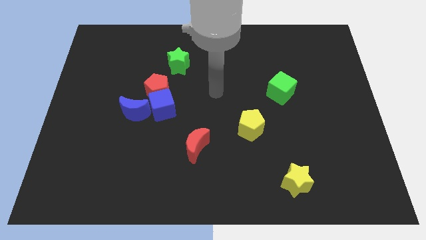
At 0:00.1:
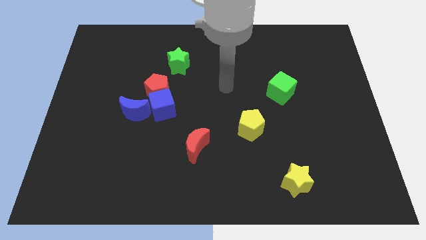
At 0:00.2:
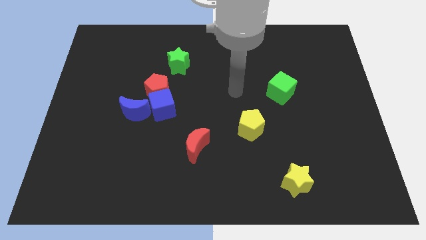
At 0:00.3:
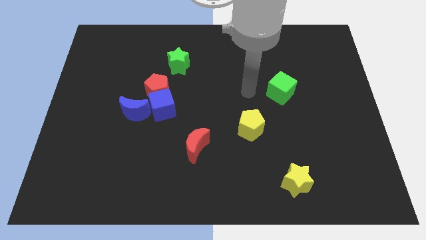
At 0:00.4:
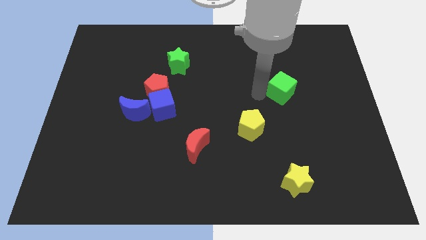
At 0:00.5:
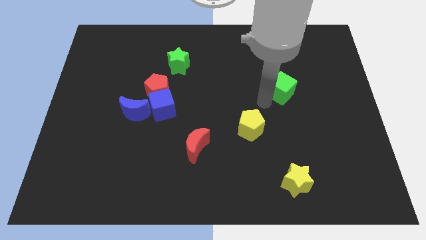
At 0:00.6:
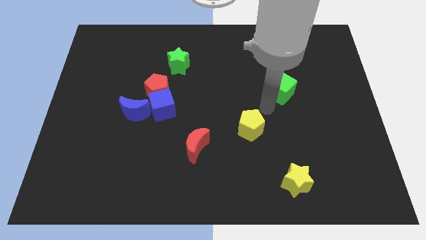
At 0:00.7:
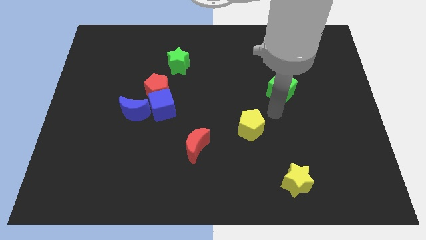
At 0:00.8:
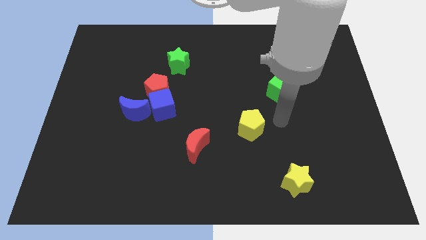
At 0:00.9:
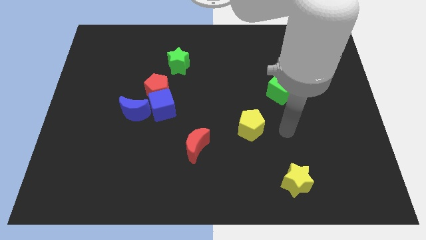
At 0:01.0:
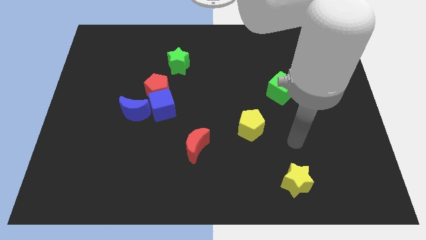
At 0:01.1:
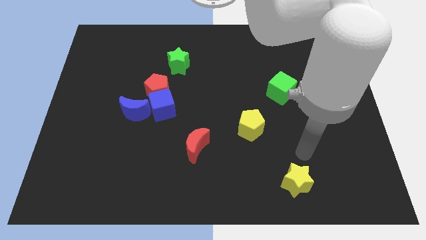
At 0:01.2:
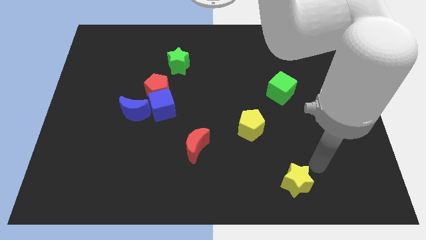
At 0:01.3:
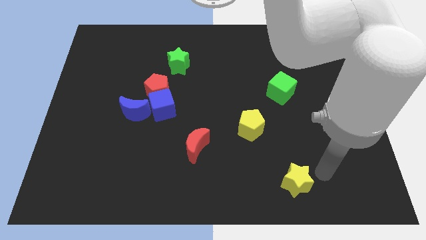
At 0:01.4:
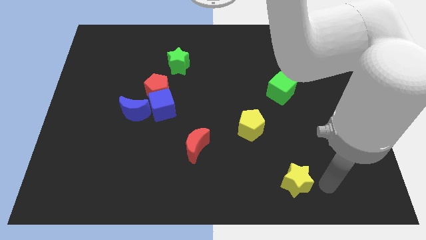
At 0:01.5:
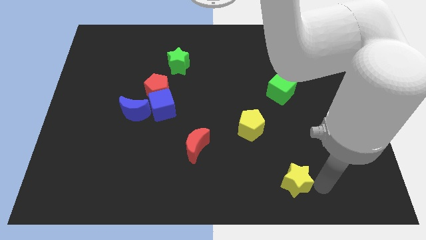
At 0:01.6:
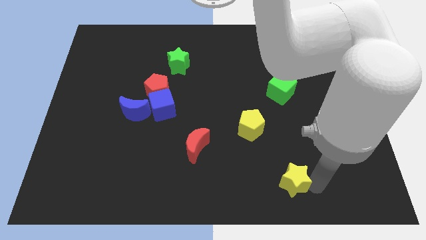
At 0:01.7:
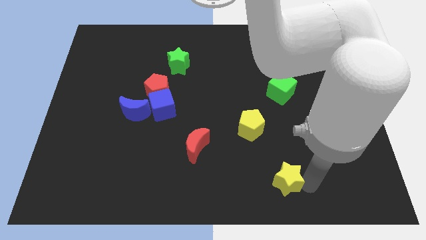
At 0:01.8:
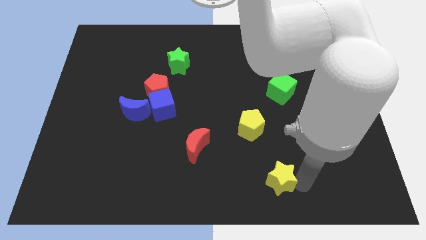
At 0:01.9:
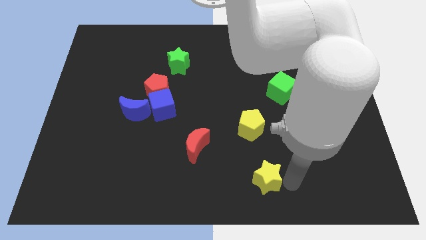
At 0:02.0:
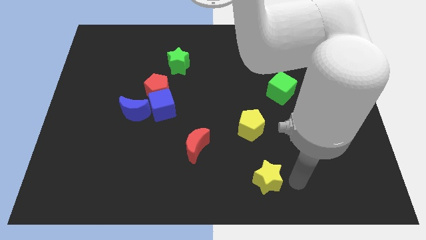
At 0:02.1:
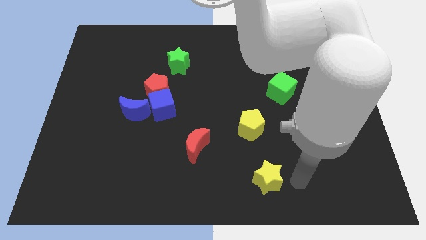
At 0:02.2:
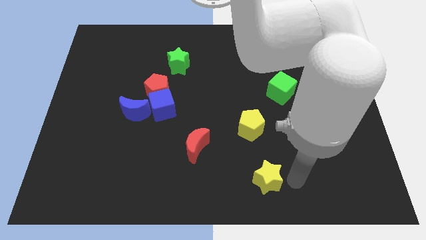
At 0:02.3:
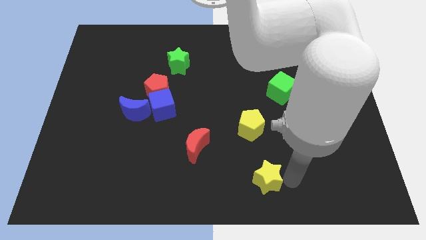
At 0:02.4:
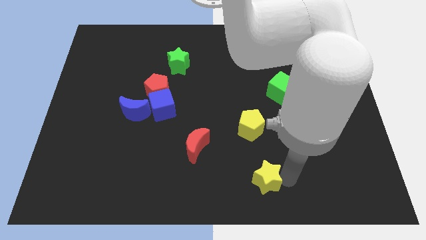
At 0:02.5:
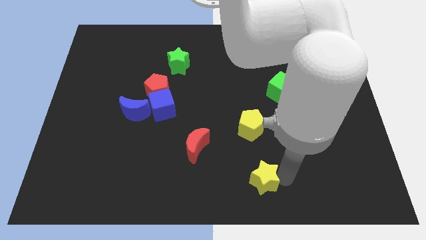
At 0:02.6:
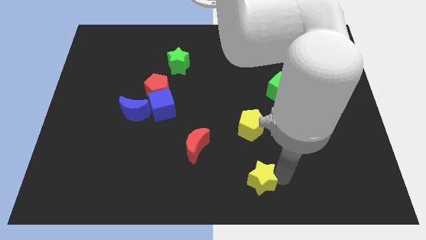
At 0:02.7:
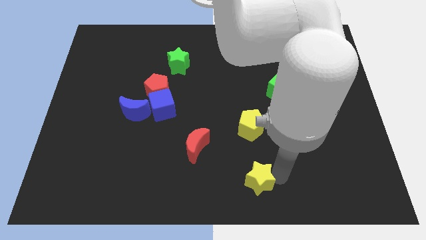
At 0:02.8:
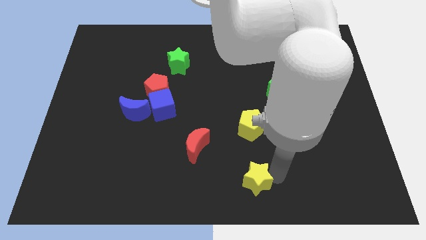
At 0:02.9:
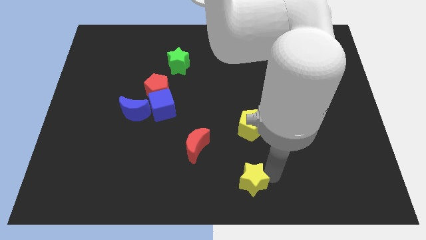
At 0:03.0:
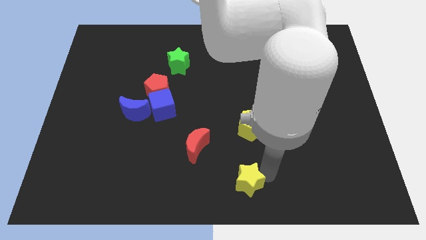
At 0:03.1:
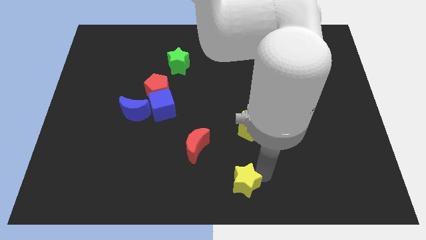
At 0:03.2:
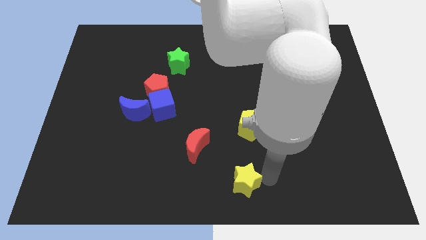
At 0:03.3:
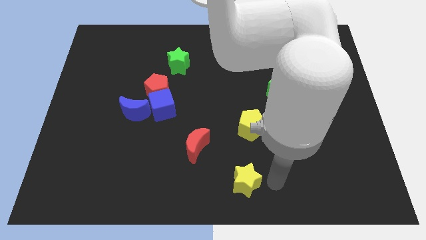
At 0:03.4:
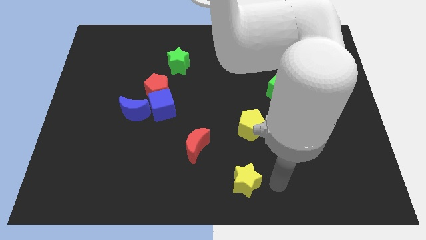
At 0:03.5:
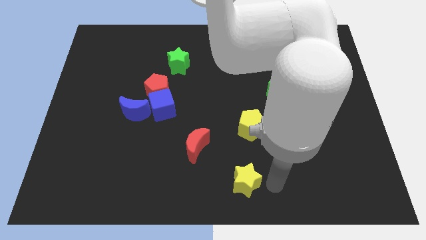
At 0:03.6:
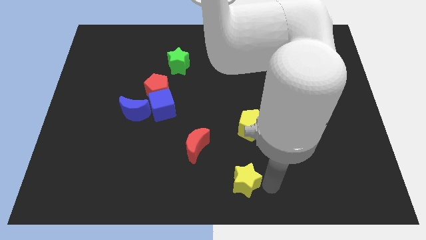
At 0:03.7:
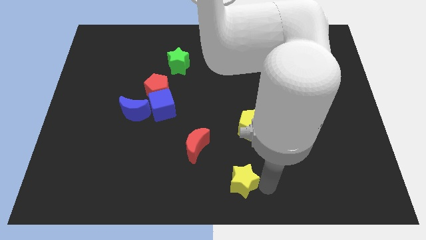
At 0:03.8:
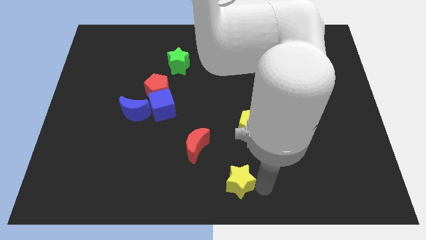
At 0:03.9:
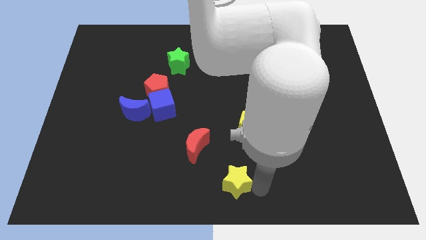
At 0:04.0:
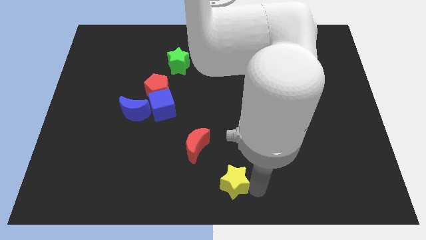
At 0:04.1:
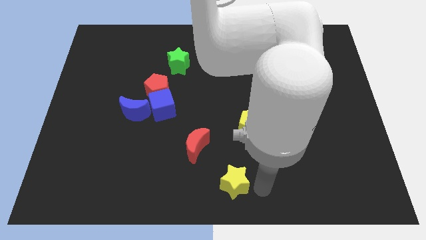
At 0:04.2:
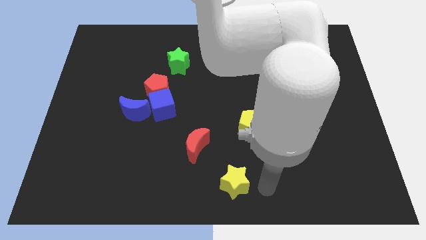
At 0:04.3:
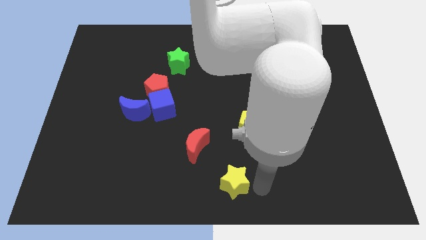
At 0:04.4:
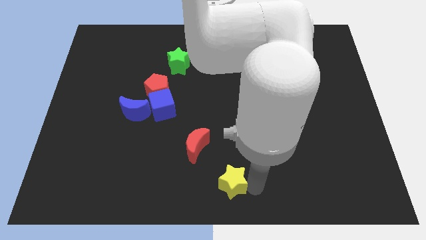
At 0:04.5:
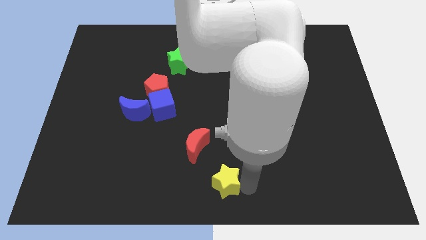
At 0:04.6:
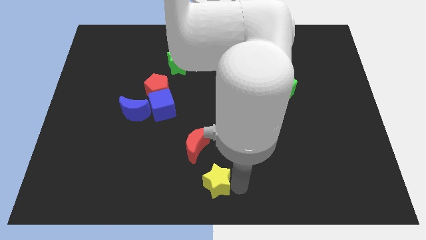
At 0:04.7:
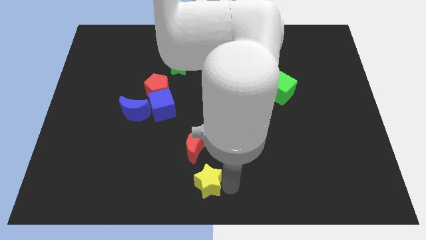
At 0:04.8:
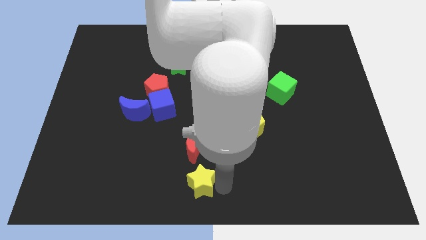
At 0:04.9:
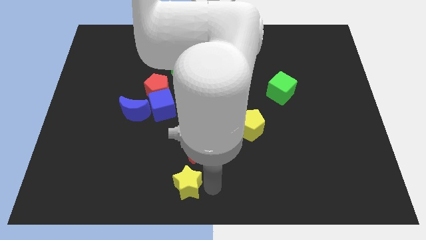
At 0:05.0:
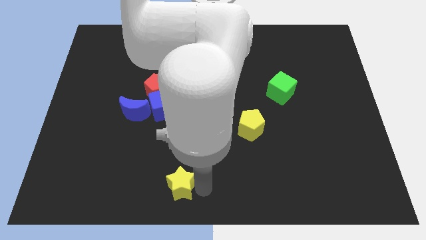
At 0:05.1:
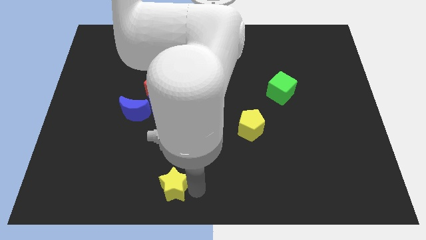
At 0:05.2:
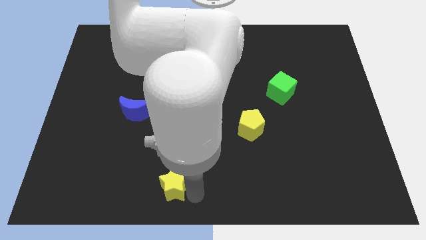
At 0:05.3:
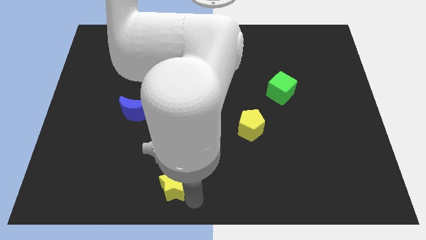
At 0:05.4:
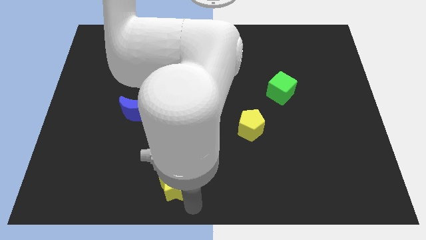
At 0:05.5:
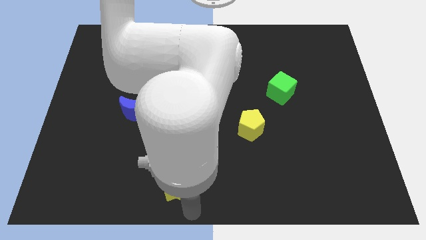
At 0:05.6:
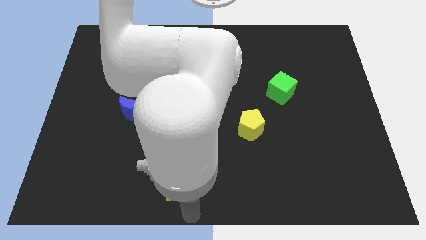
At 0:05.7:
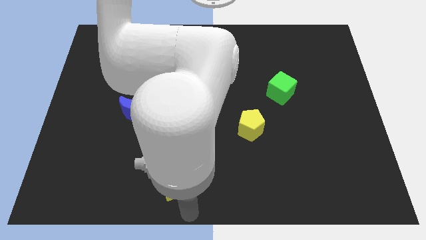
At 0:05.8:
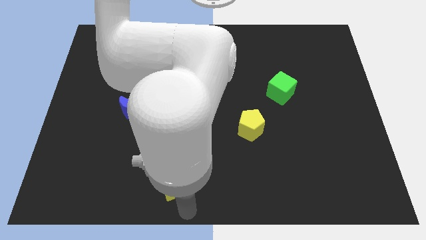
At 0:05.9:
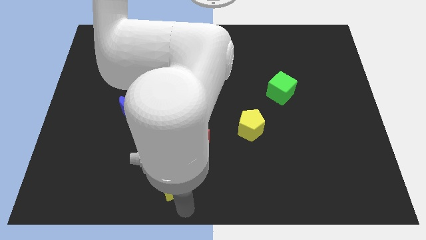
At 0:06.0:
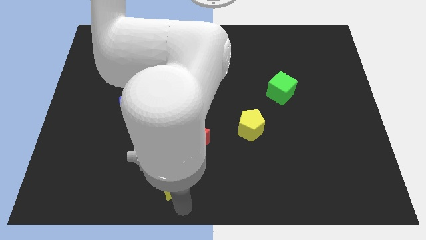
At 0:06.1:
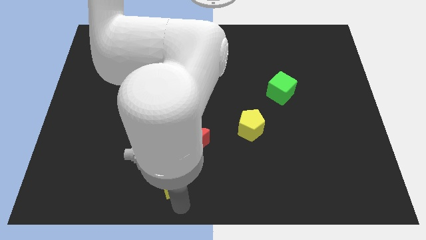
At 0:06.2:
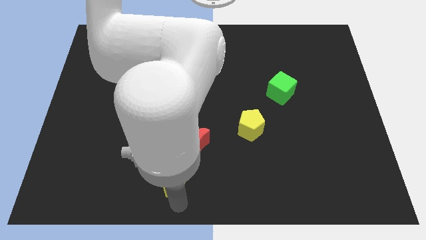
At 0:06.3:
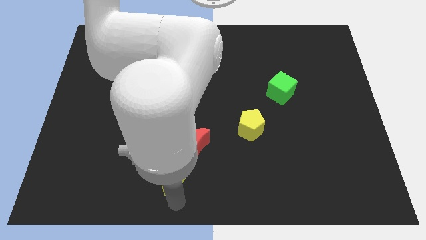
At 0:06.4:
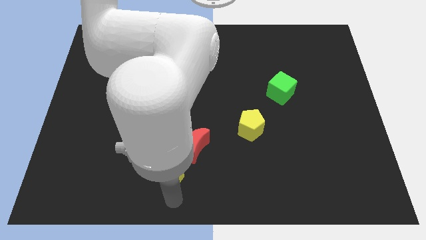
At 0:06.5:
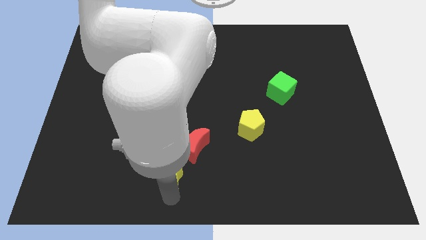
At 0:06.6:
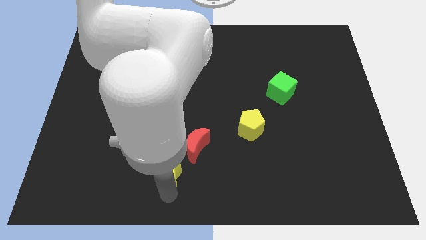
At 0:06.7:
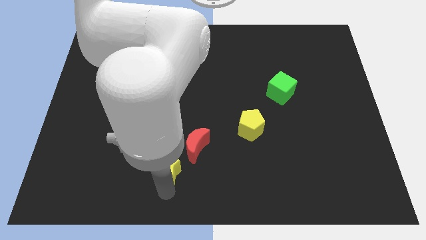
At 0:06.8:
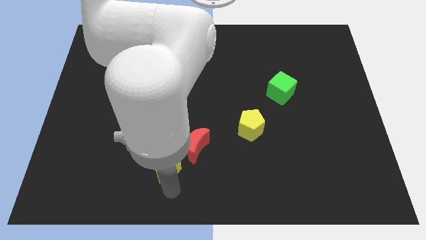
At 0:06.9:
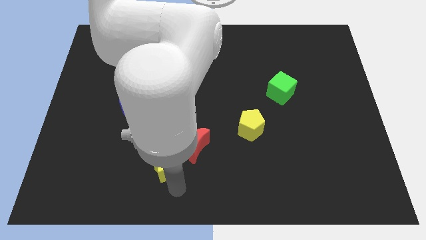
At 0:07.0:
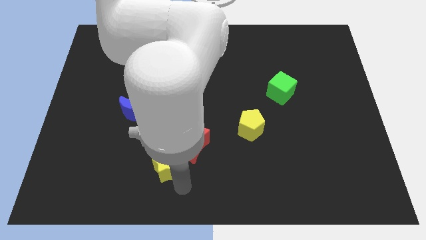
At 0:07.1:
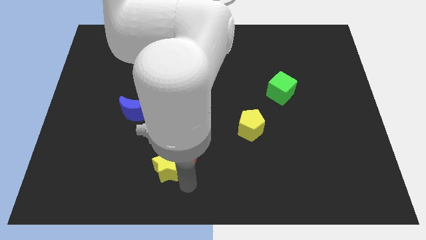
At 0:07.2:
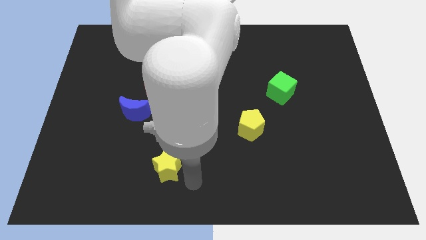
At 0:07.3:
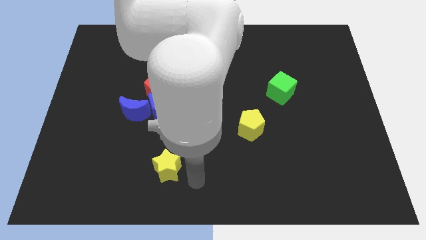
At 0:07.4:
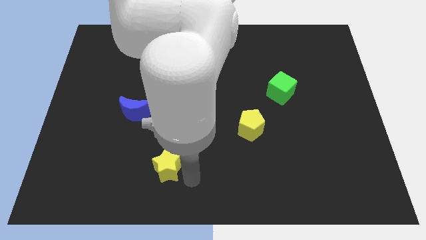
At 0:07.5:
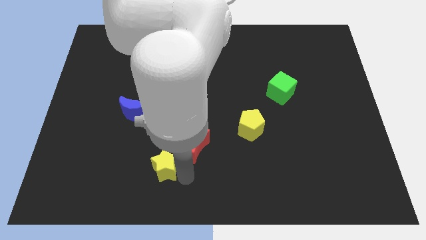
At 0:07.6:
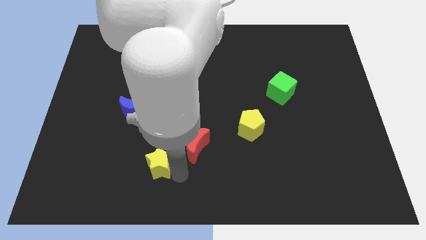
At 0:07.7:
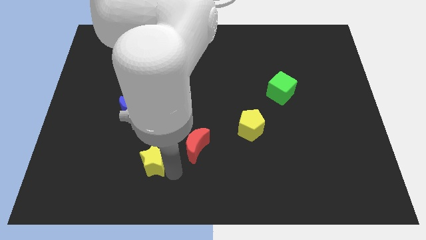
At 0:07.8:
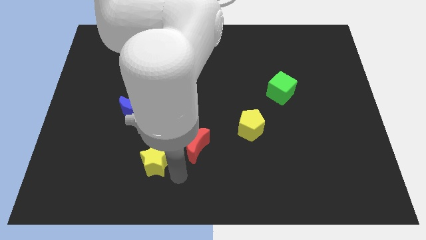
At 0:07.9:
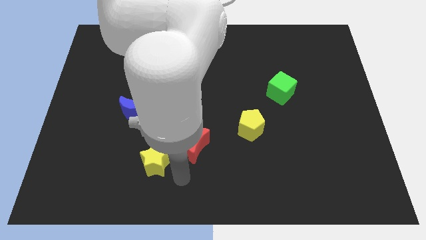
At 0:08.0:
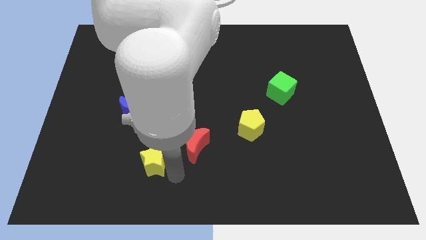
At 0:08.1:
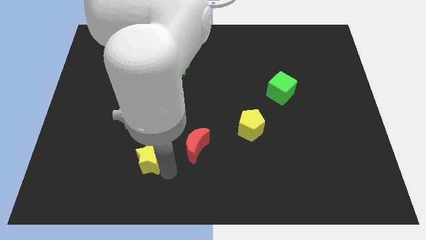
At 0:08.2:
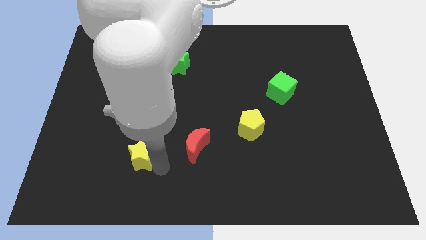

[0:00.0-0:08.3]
push the yellow star to the bottom of the blue moon
